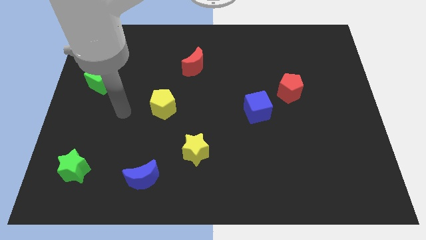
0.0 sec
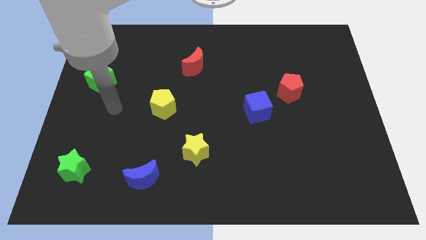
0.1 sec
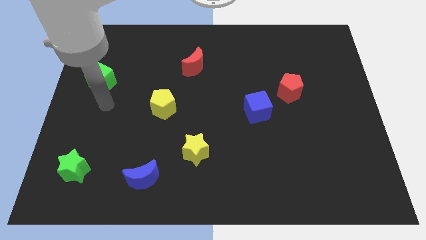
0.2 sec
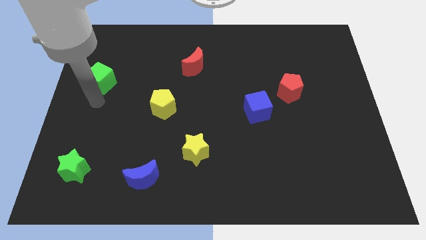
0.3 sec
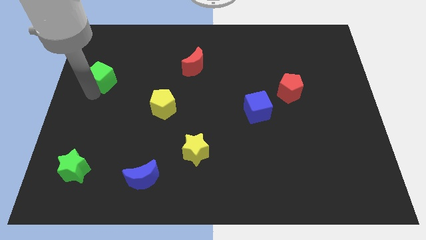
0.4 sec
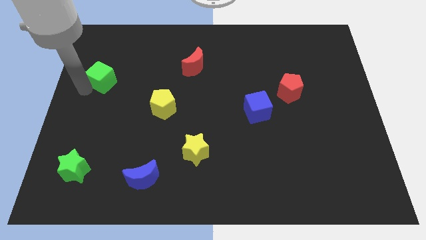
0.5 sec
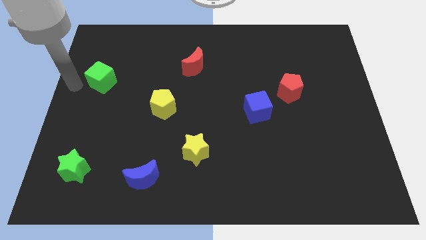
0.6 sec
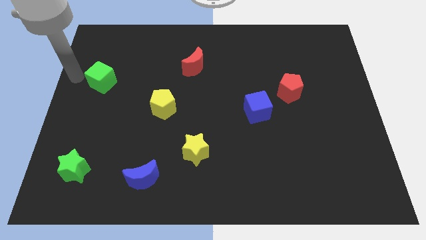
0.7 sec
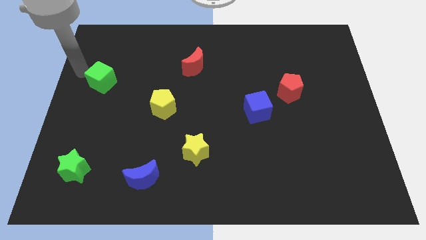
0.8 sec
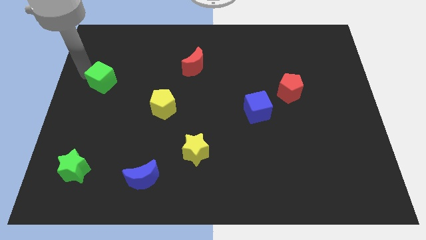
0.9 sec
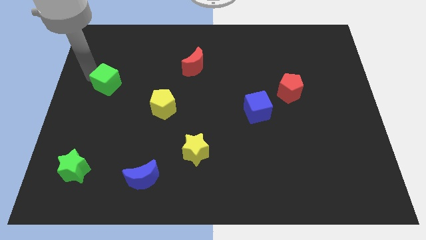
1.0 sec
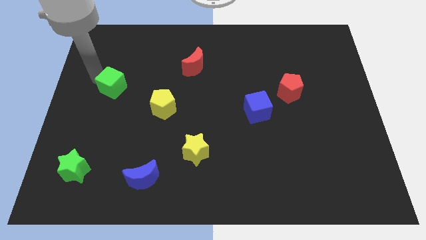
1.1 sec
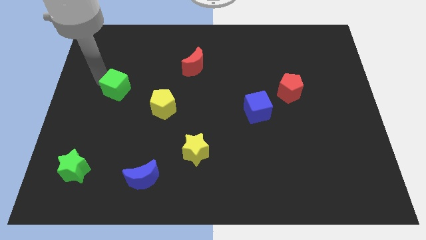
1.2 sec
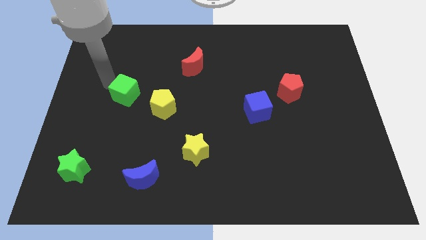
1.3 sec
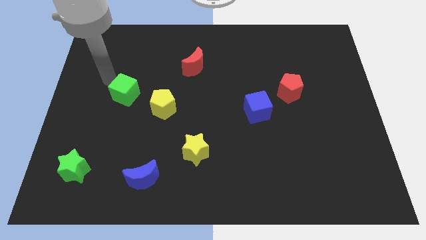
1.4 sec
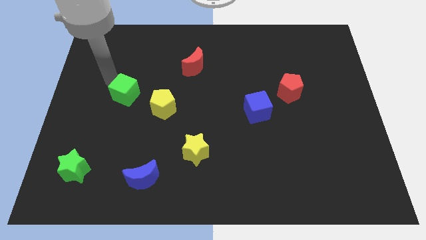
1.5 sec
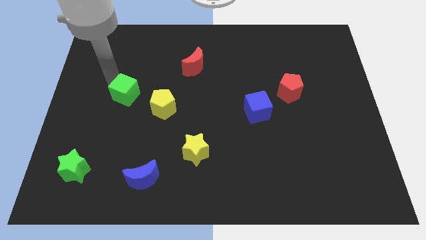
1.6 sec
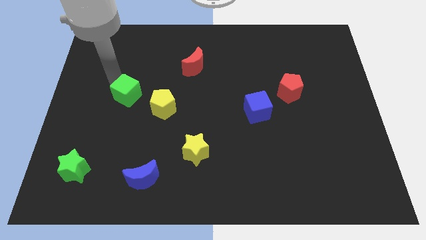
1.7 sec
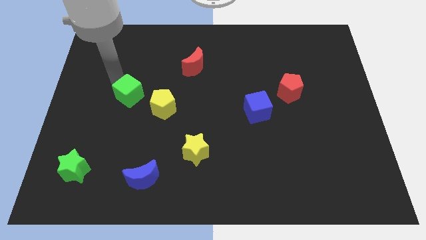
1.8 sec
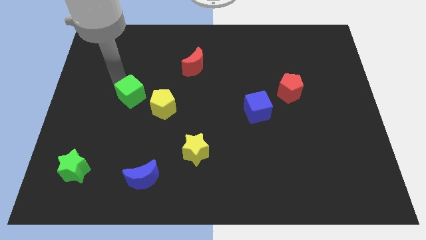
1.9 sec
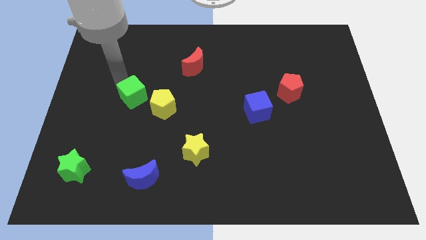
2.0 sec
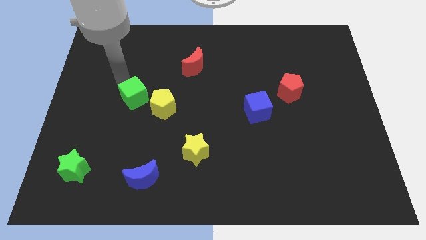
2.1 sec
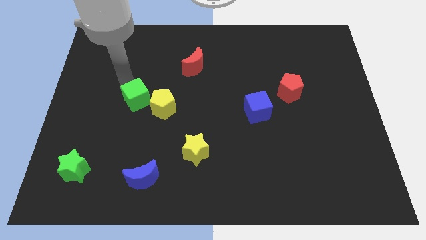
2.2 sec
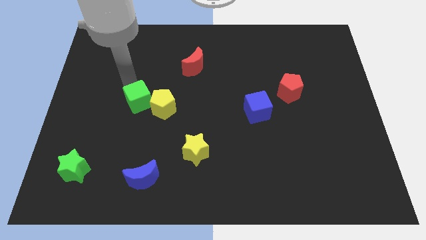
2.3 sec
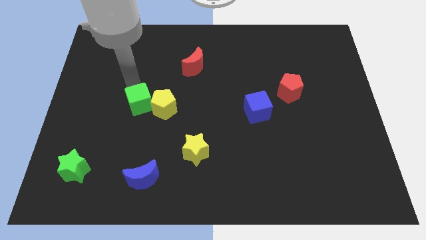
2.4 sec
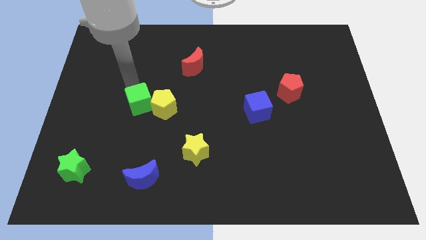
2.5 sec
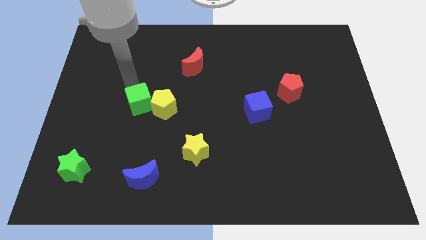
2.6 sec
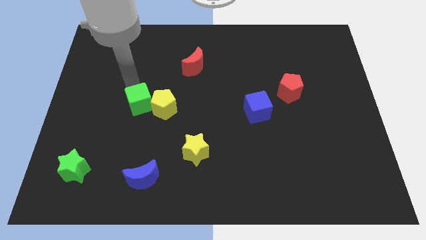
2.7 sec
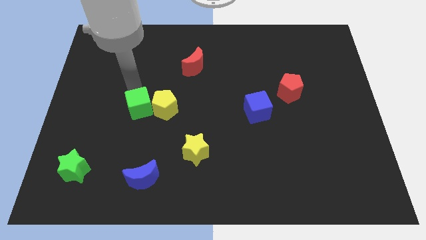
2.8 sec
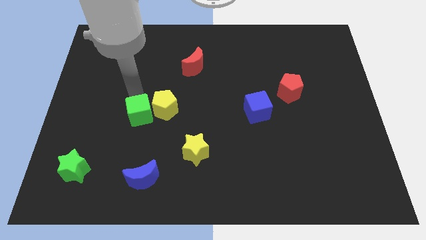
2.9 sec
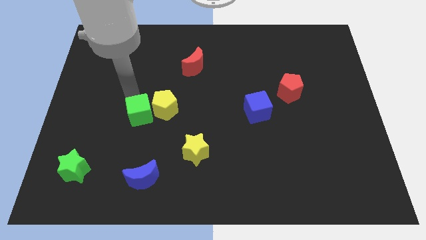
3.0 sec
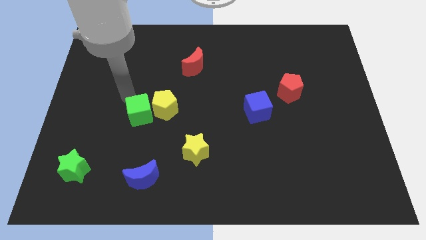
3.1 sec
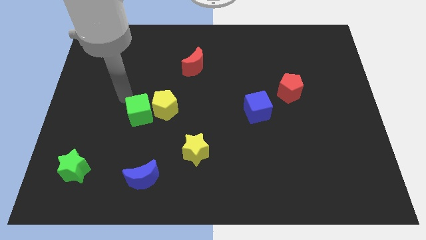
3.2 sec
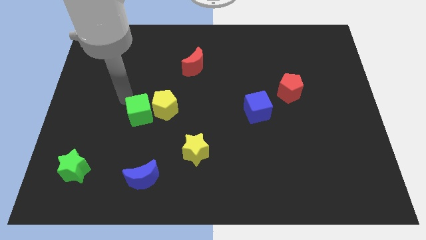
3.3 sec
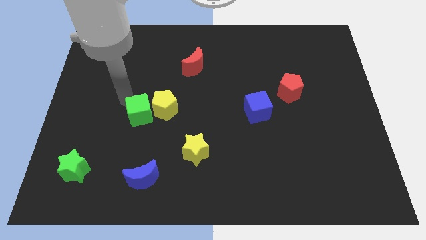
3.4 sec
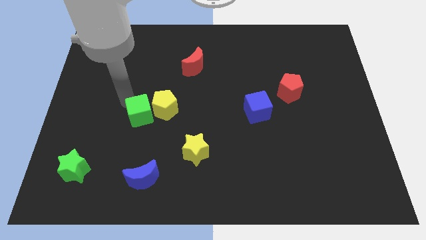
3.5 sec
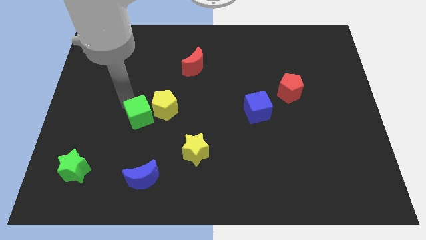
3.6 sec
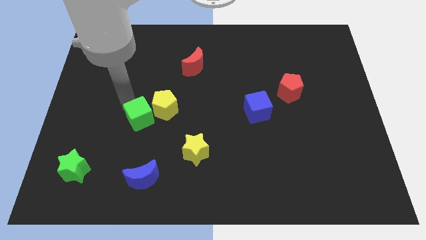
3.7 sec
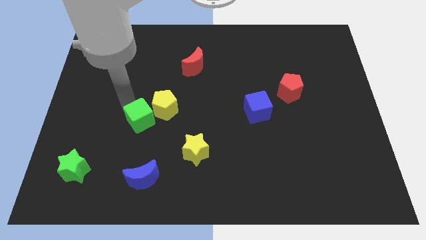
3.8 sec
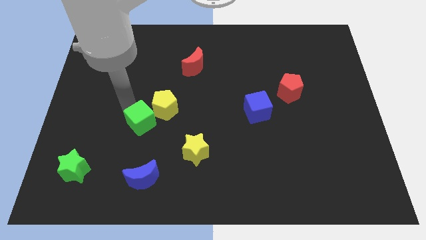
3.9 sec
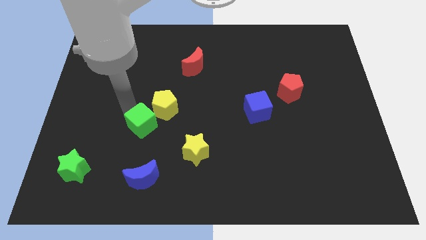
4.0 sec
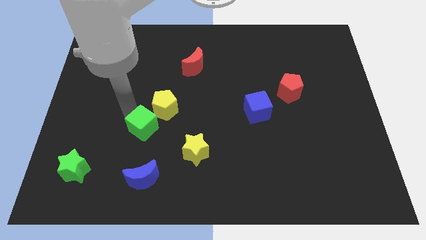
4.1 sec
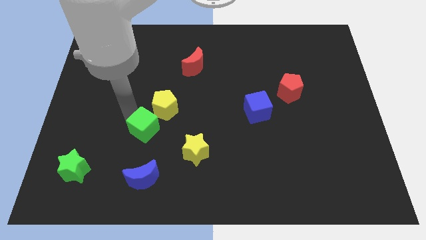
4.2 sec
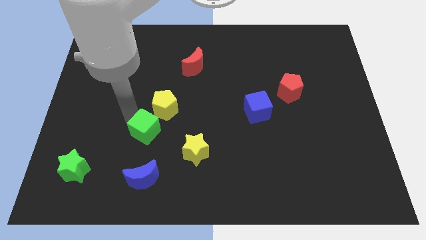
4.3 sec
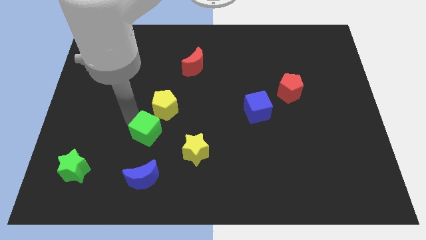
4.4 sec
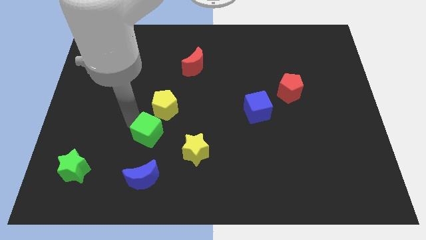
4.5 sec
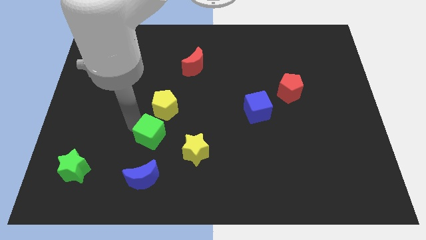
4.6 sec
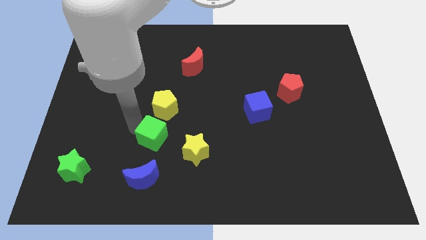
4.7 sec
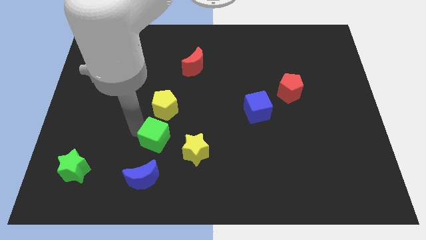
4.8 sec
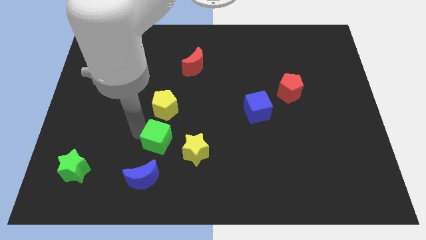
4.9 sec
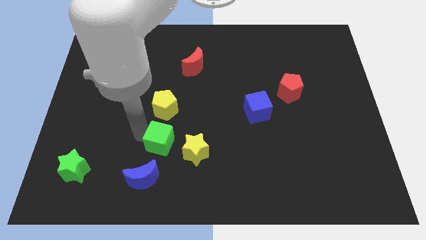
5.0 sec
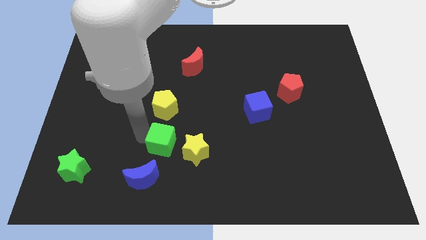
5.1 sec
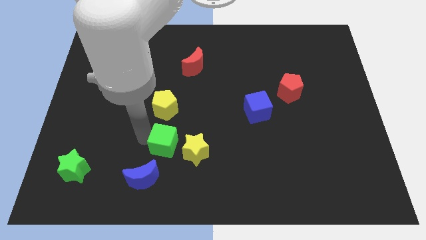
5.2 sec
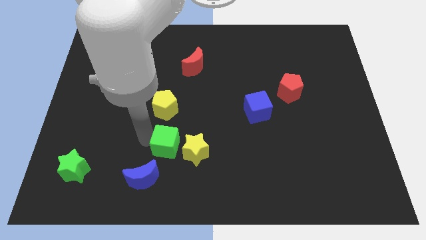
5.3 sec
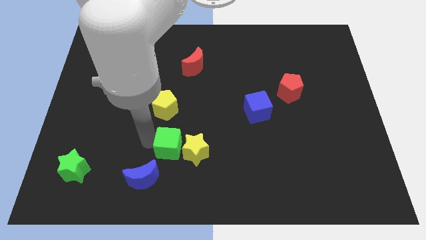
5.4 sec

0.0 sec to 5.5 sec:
put the green cube towards the yellow star

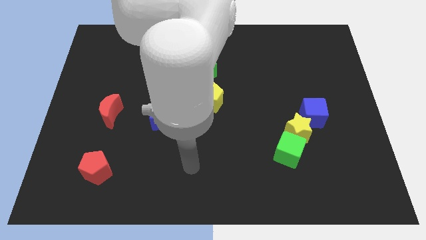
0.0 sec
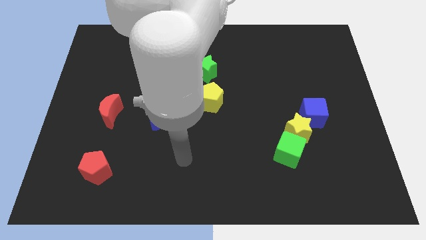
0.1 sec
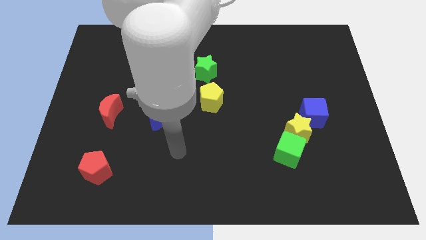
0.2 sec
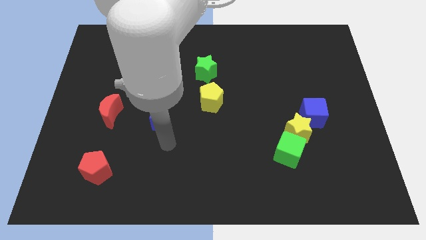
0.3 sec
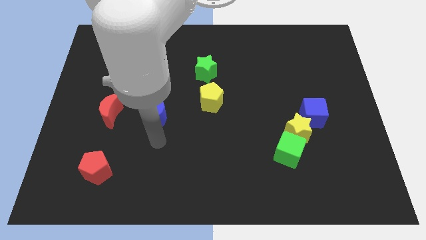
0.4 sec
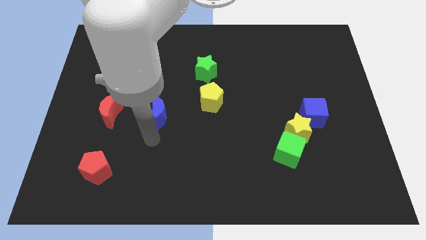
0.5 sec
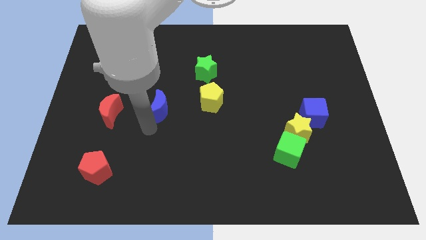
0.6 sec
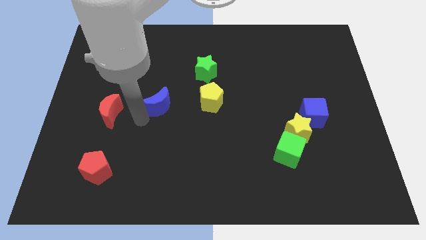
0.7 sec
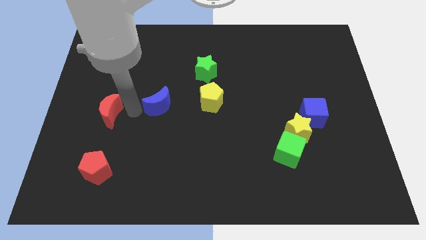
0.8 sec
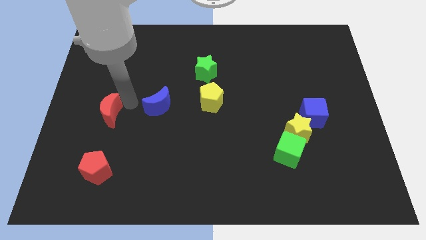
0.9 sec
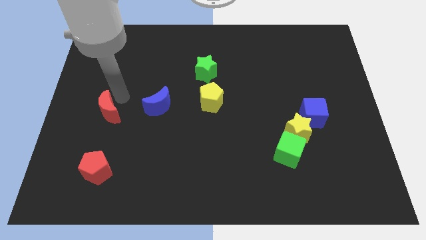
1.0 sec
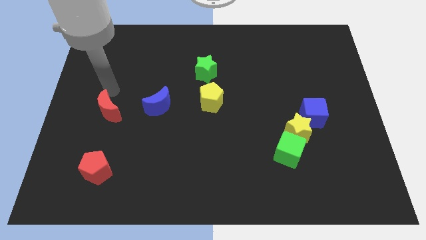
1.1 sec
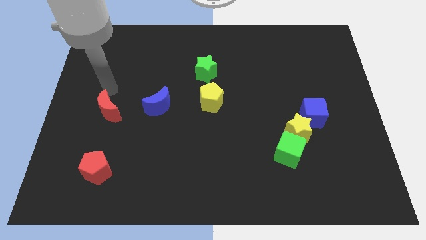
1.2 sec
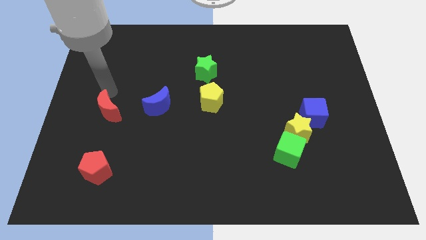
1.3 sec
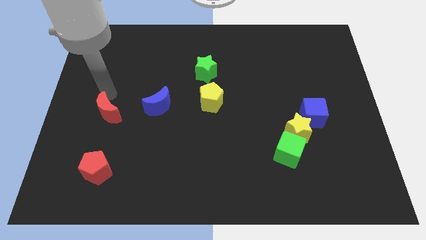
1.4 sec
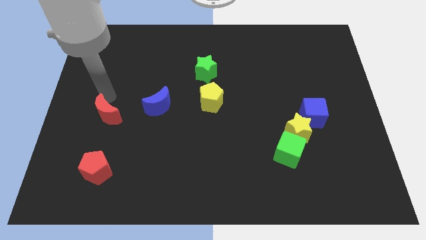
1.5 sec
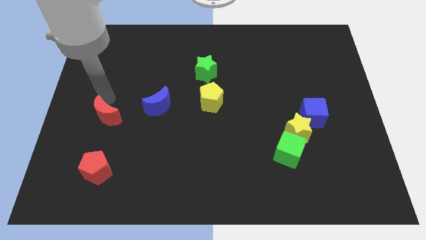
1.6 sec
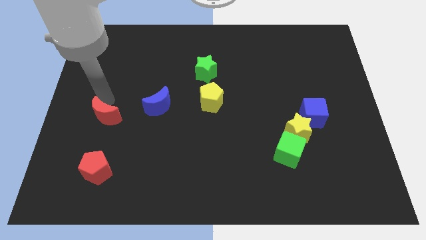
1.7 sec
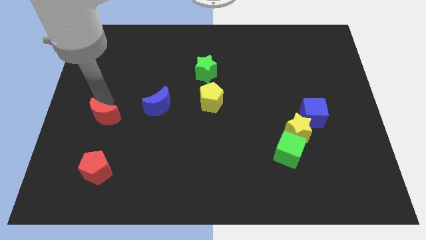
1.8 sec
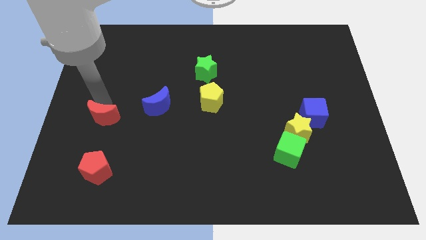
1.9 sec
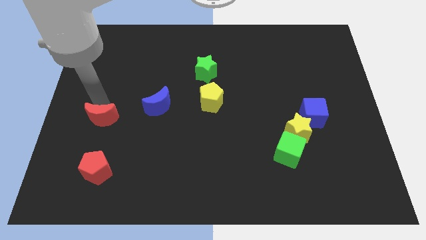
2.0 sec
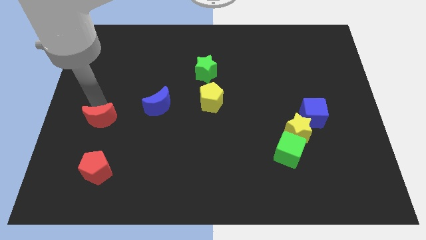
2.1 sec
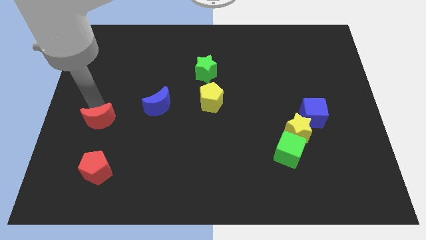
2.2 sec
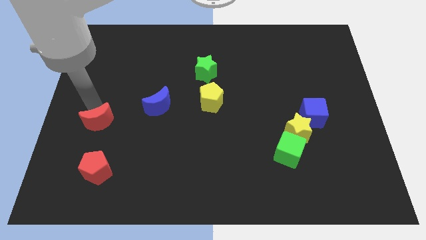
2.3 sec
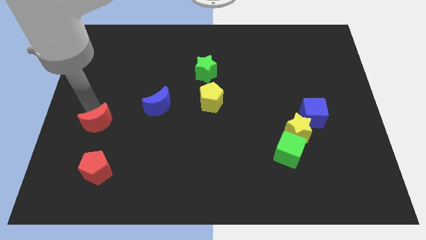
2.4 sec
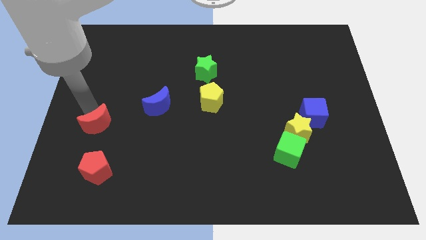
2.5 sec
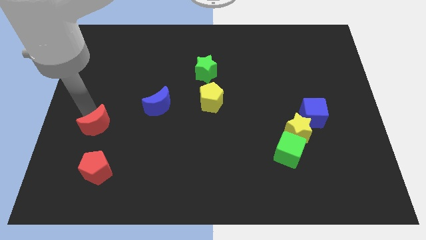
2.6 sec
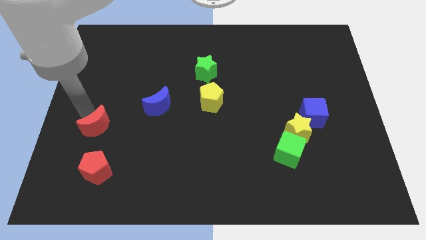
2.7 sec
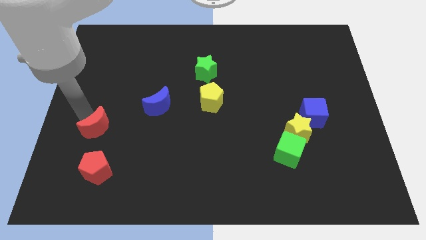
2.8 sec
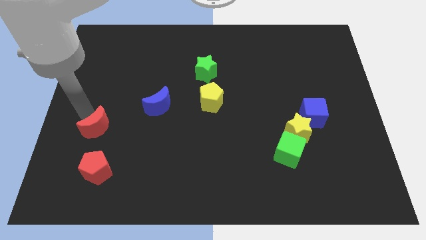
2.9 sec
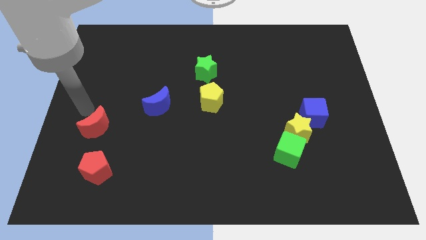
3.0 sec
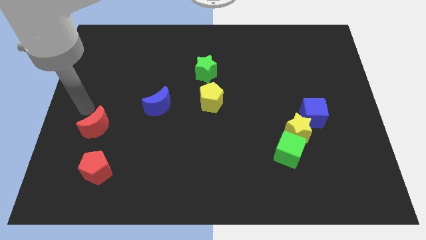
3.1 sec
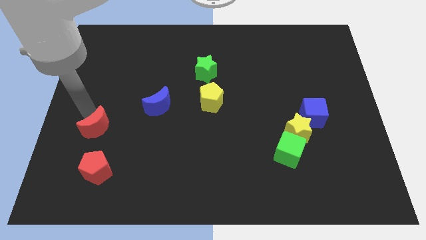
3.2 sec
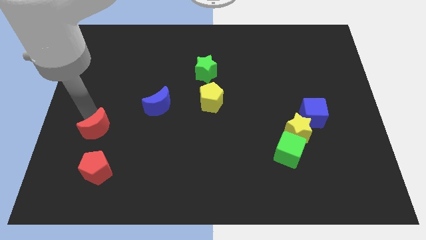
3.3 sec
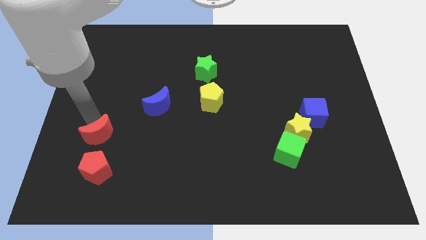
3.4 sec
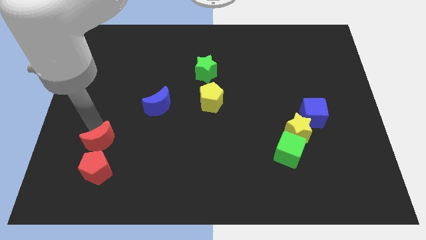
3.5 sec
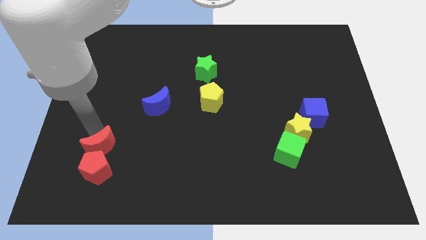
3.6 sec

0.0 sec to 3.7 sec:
put the red moon to the red pentagon
